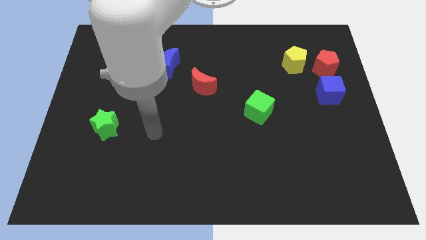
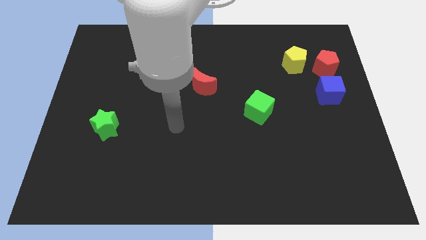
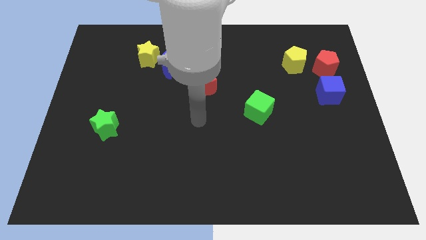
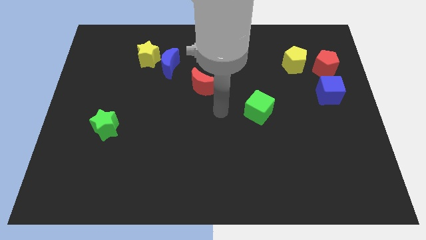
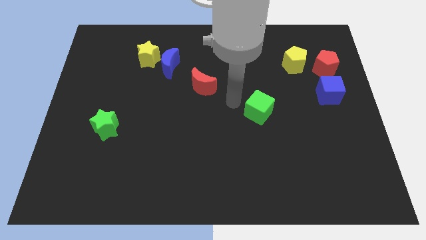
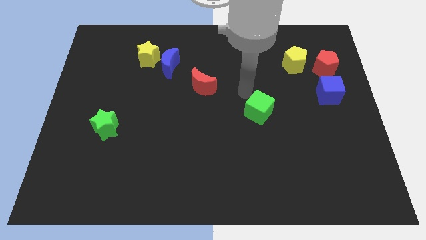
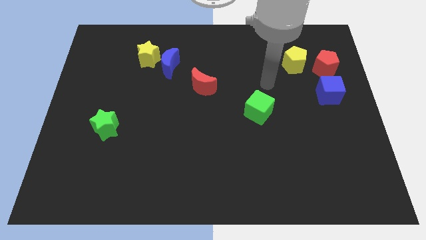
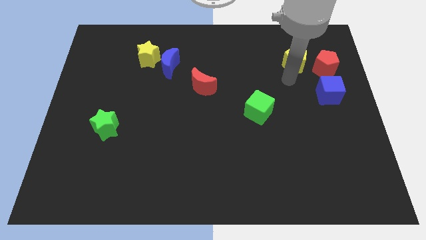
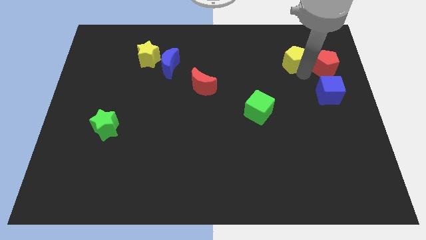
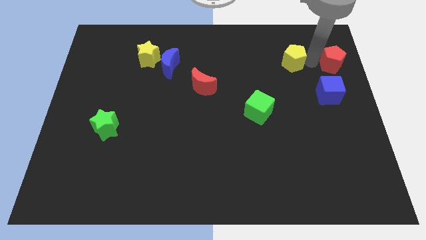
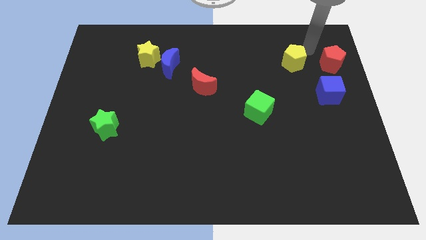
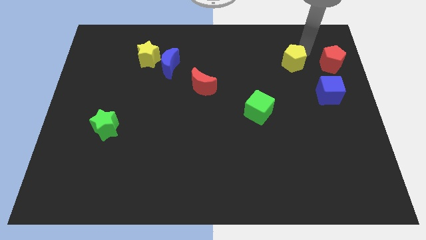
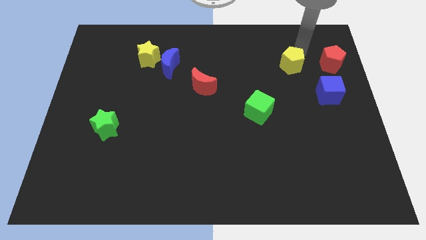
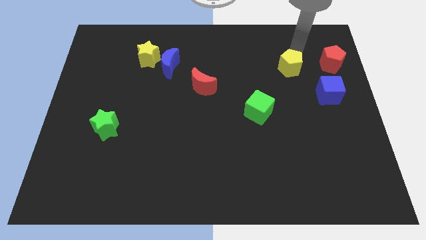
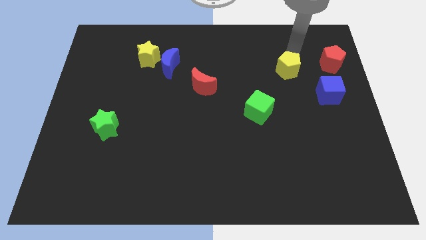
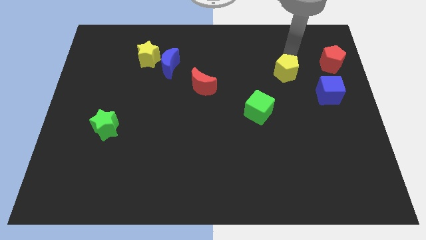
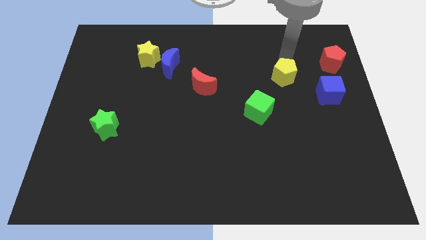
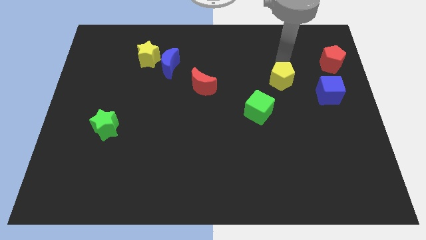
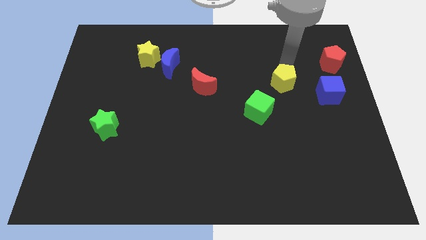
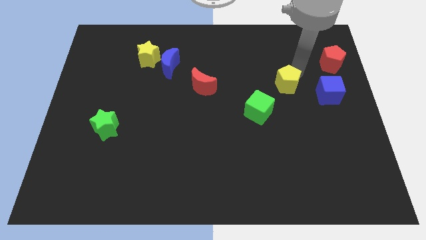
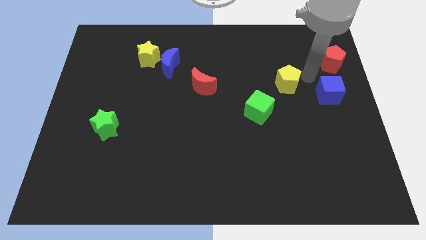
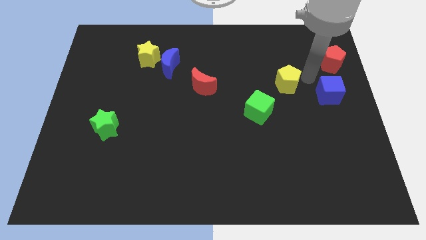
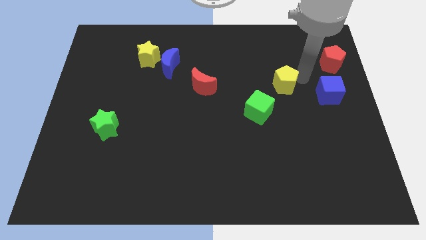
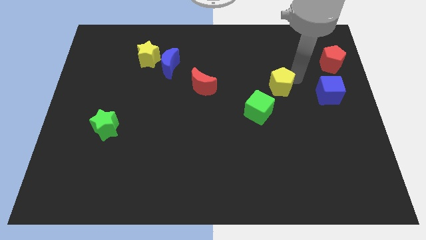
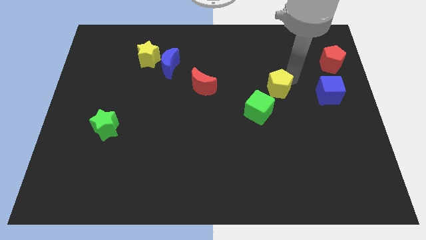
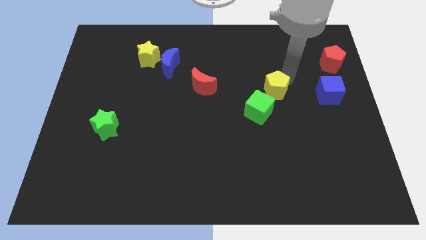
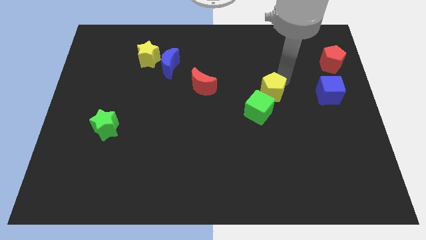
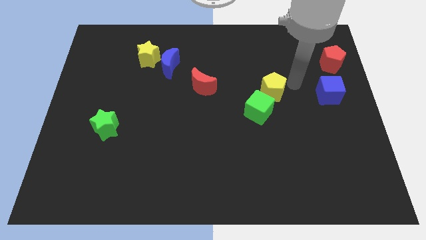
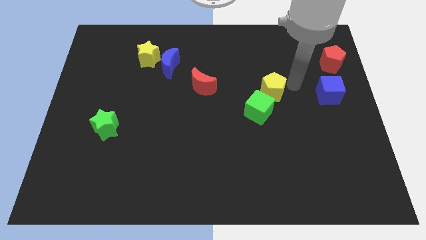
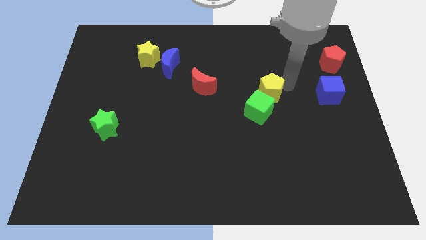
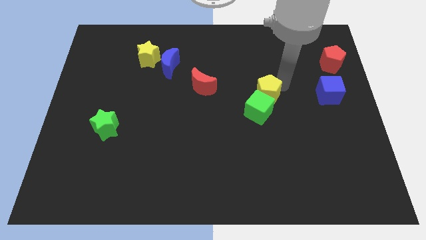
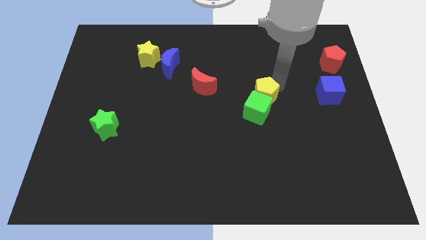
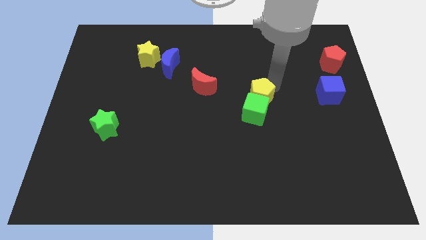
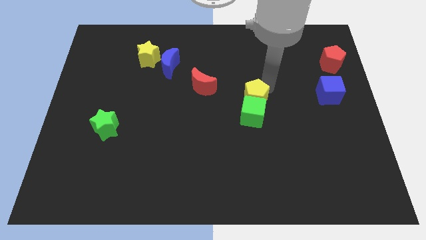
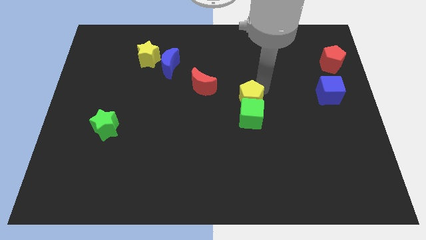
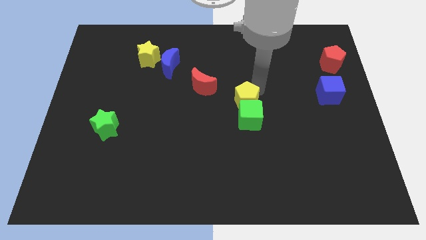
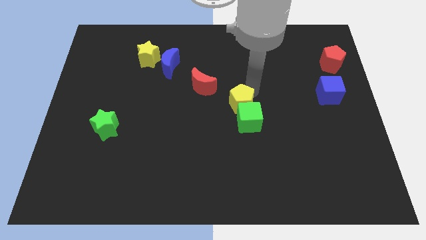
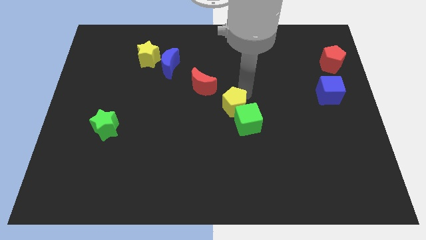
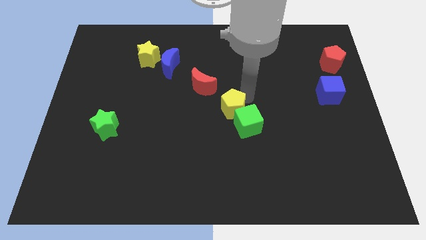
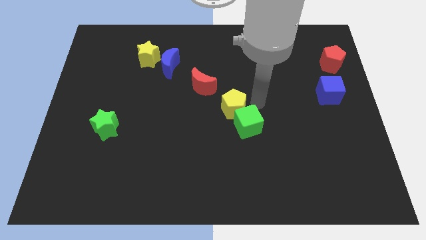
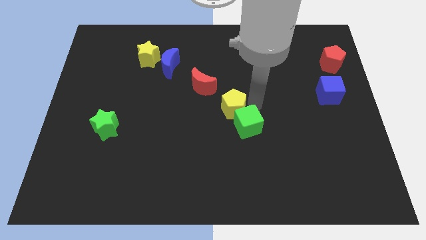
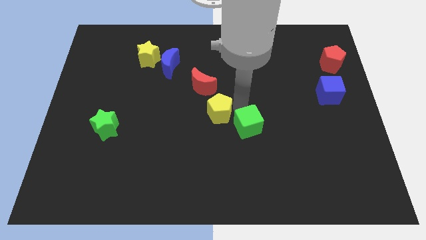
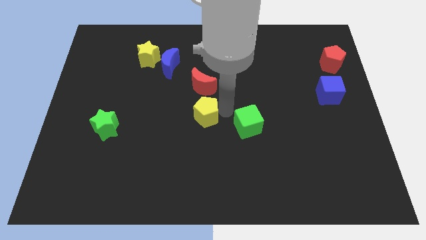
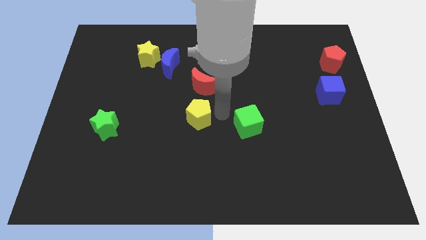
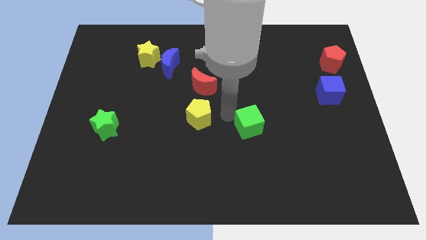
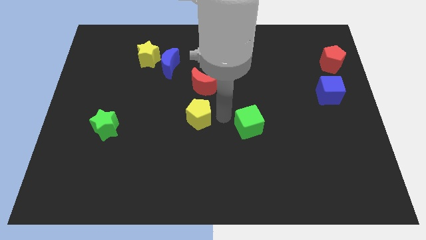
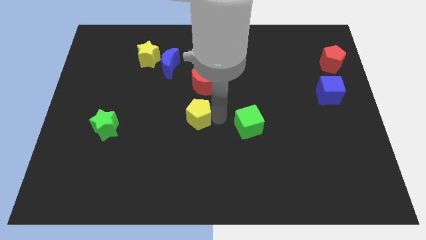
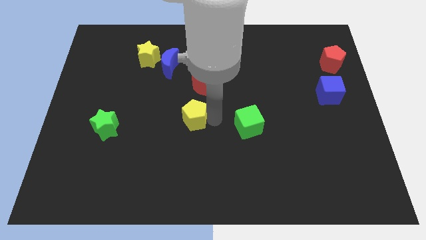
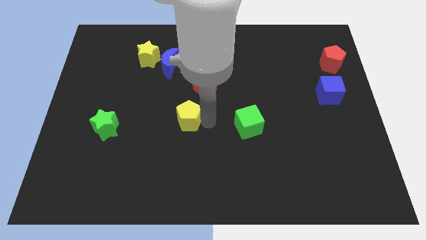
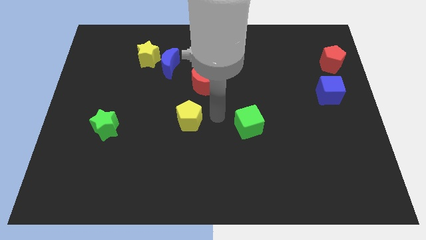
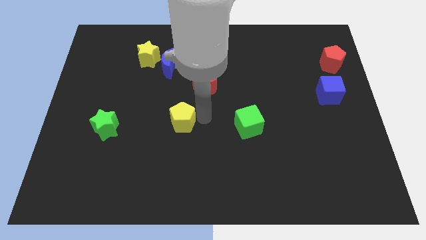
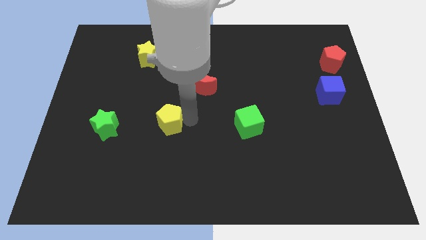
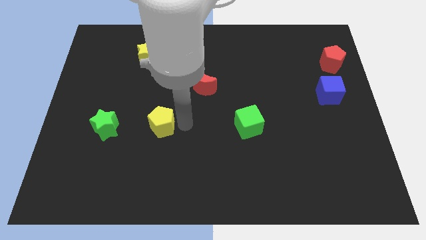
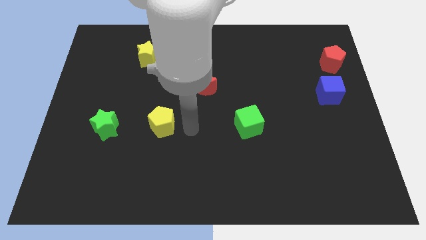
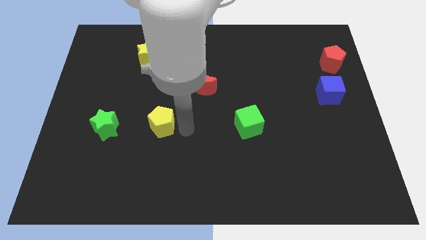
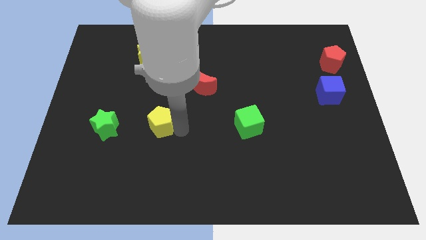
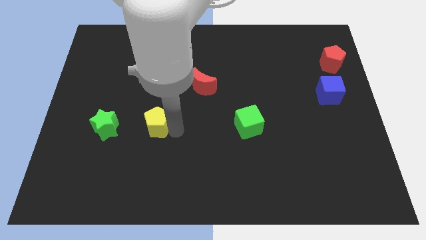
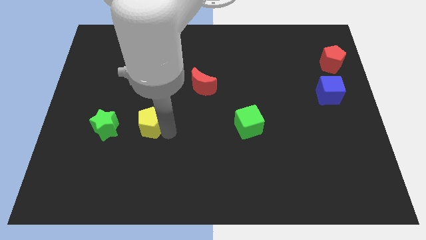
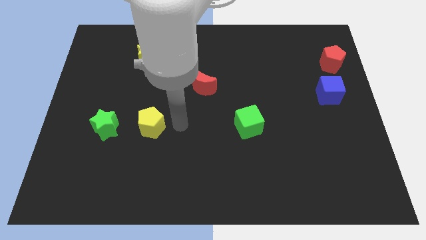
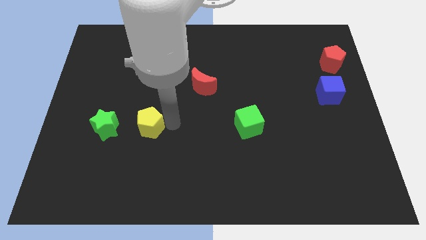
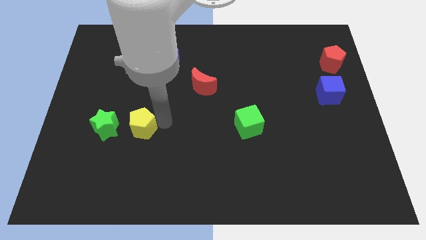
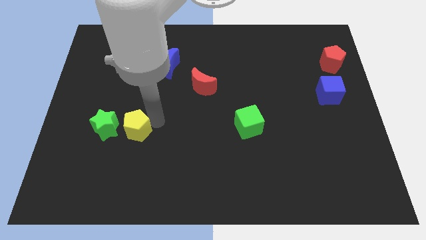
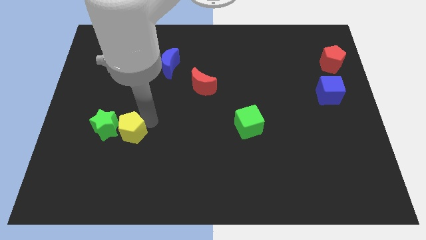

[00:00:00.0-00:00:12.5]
move the yellow pentagon close to the green star

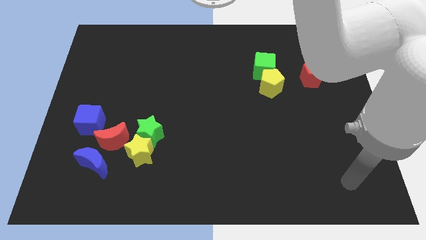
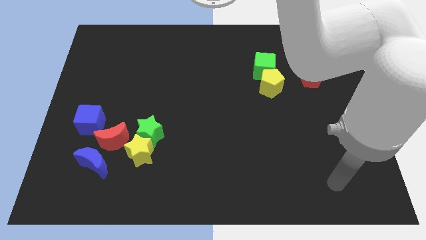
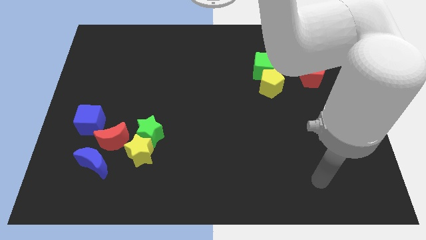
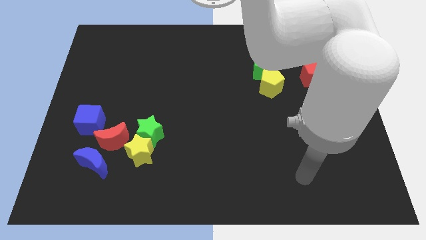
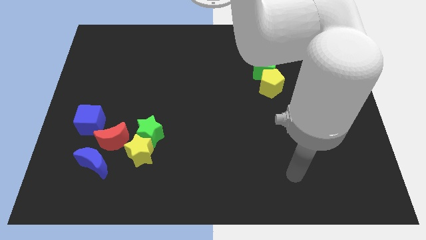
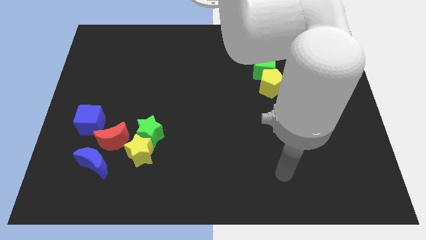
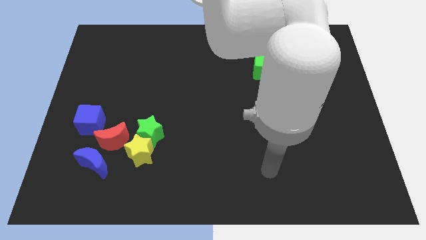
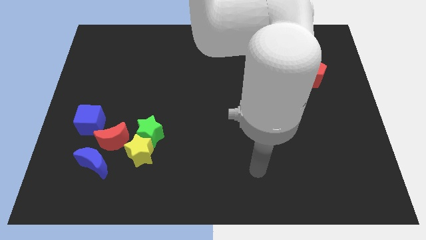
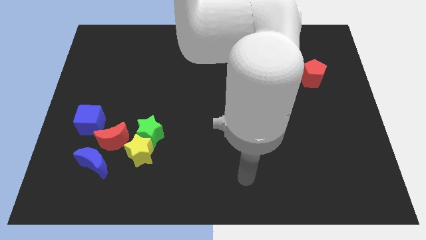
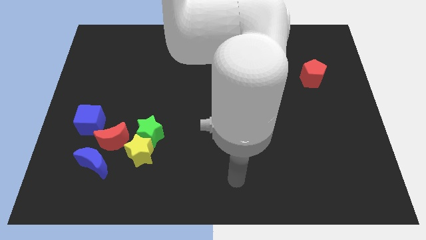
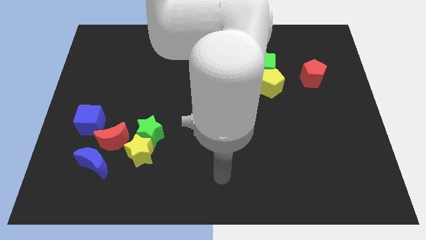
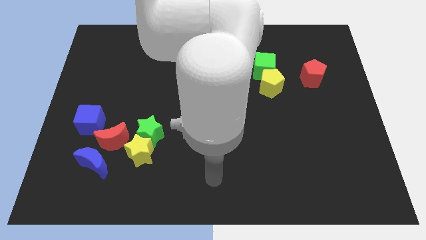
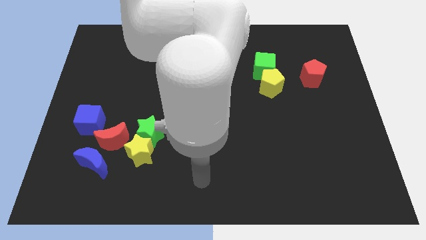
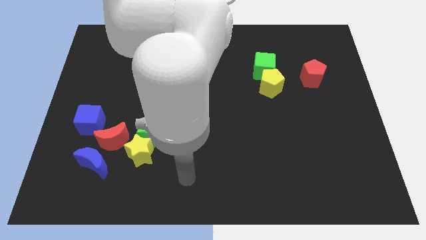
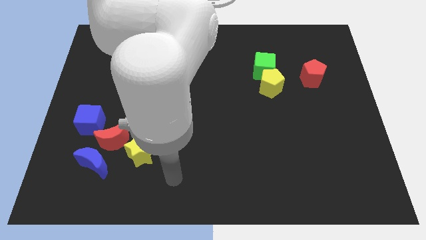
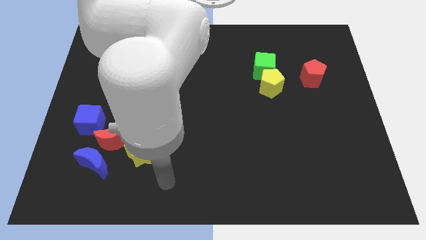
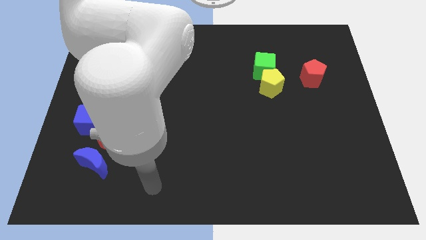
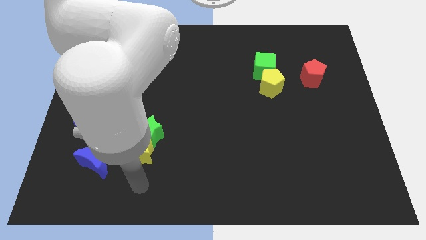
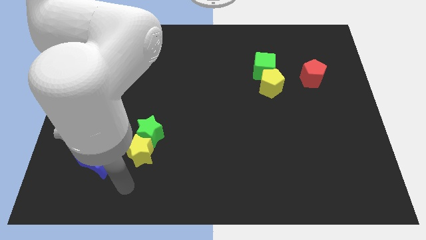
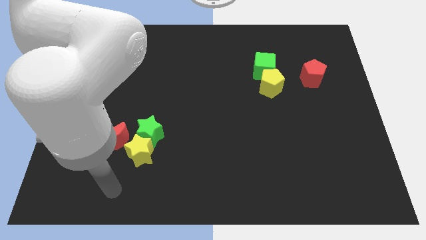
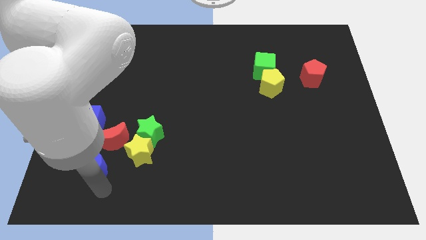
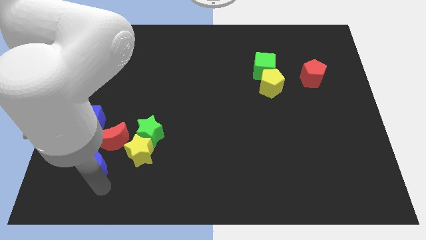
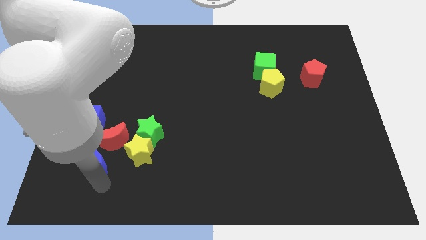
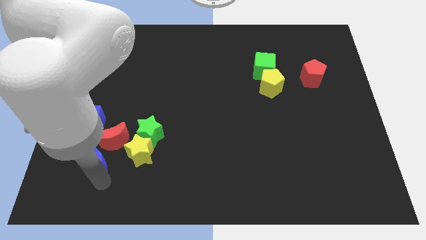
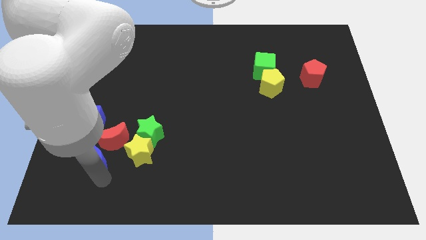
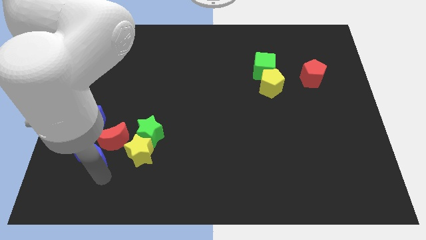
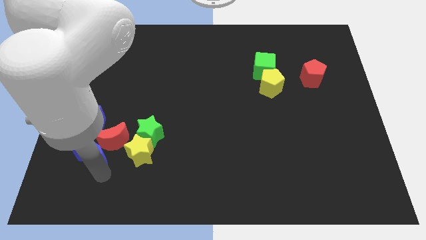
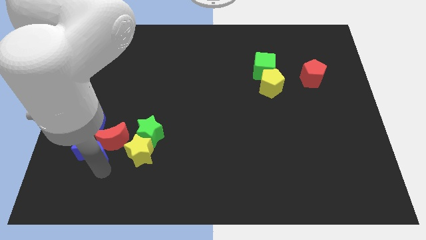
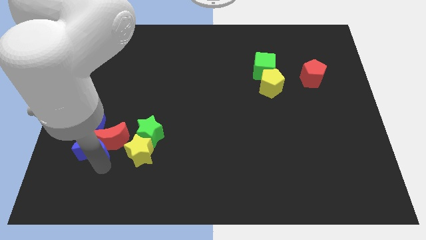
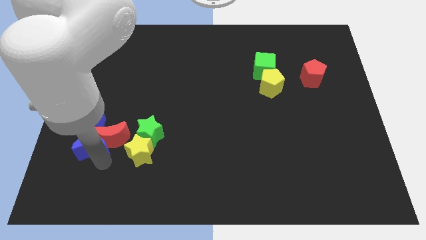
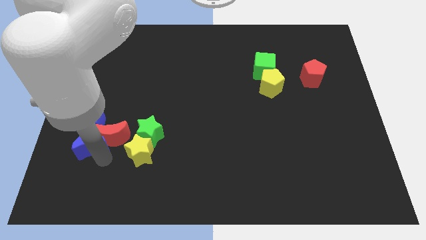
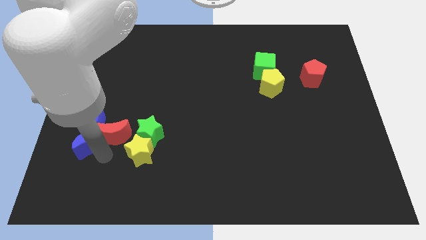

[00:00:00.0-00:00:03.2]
put the blue moon close to the blue cube
